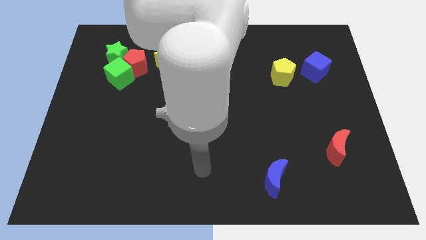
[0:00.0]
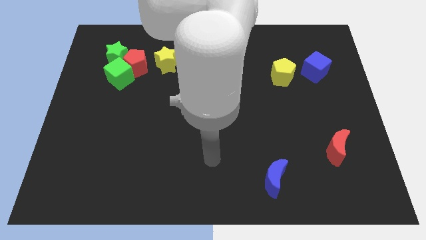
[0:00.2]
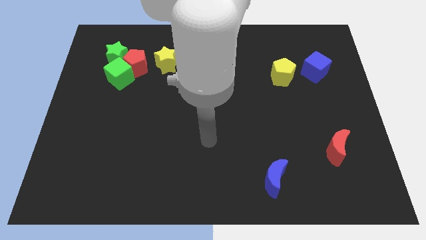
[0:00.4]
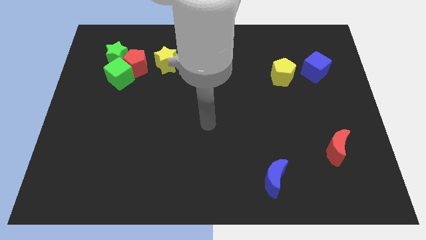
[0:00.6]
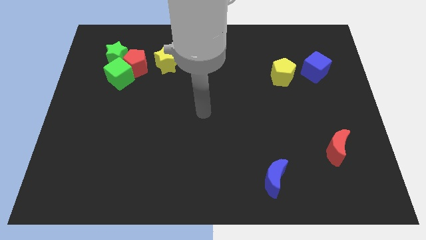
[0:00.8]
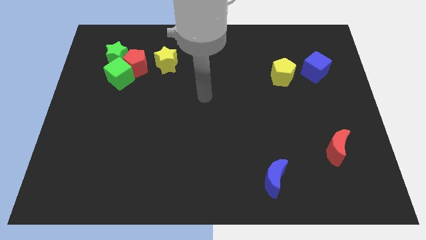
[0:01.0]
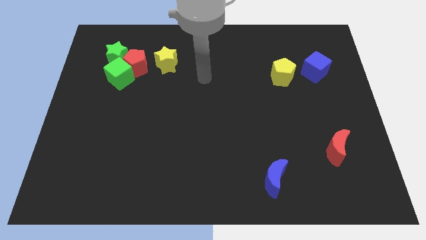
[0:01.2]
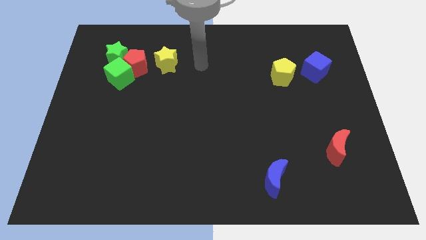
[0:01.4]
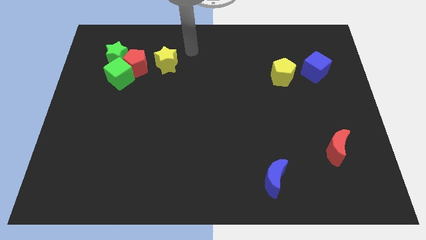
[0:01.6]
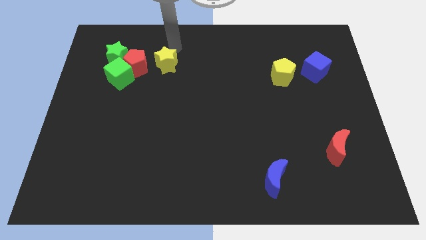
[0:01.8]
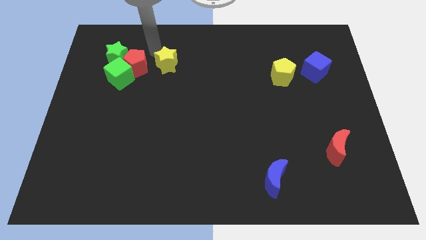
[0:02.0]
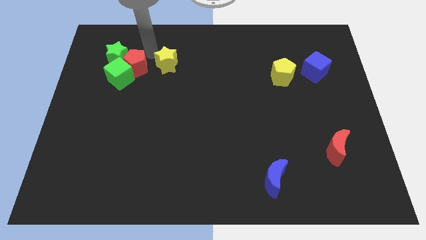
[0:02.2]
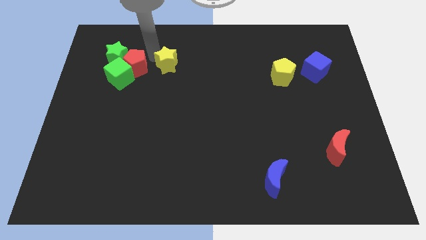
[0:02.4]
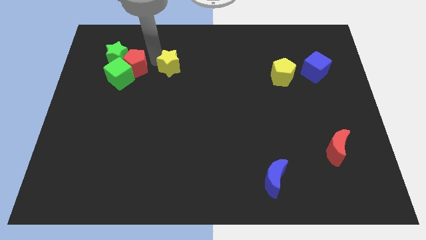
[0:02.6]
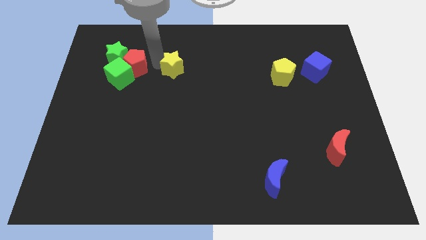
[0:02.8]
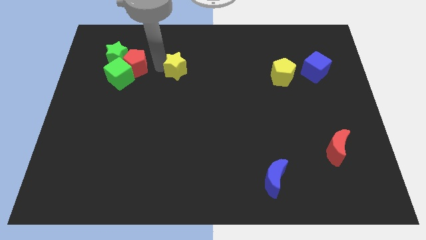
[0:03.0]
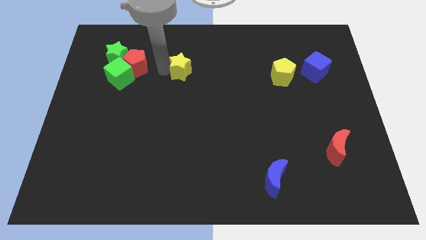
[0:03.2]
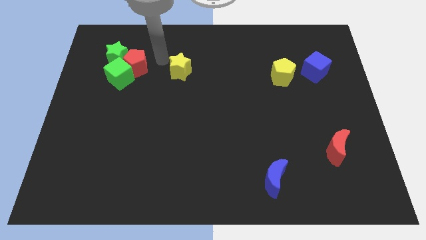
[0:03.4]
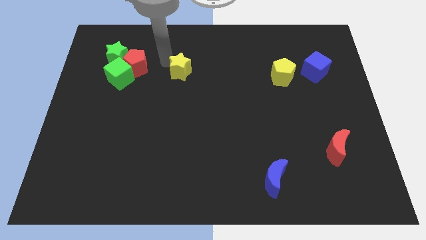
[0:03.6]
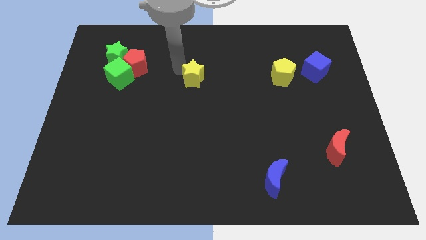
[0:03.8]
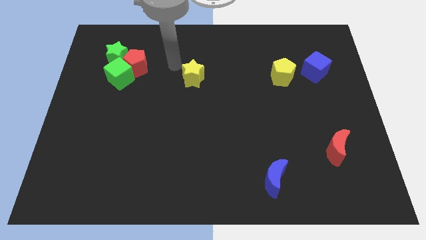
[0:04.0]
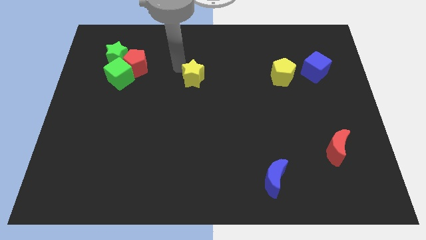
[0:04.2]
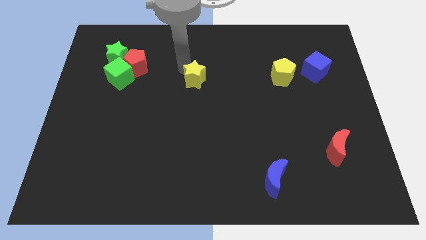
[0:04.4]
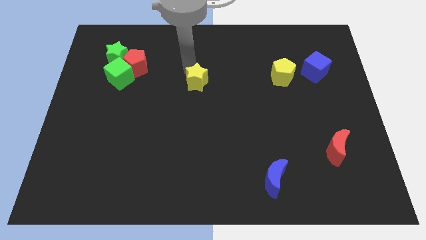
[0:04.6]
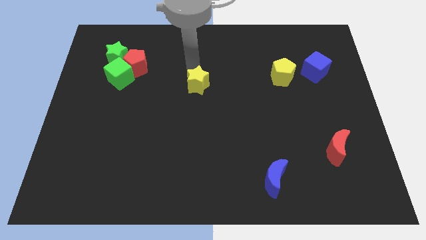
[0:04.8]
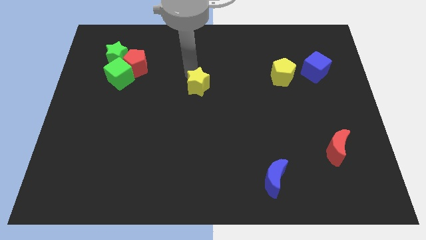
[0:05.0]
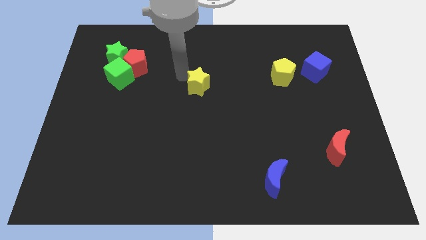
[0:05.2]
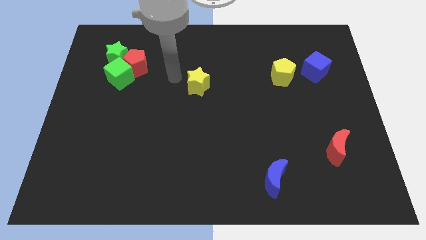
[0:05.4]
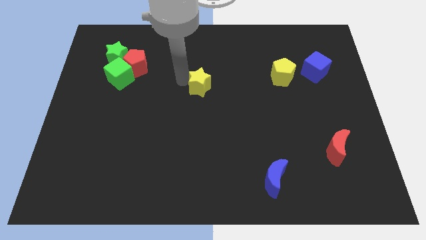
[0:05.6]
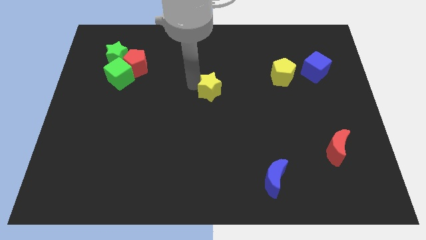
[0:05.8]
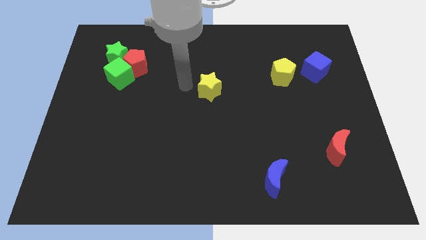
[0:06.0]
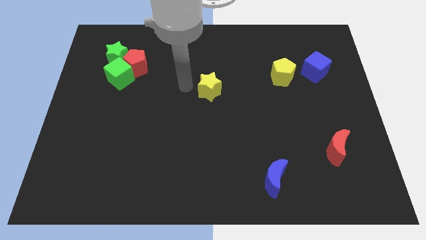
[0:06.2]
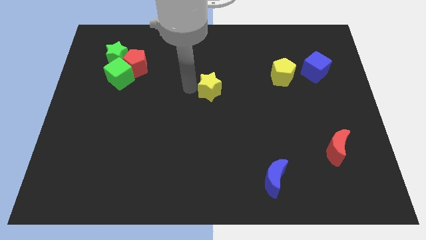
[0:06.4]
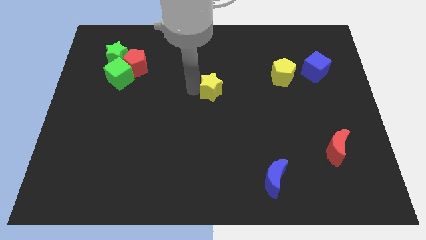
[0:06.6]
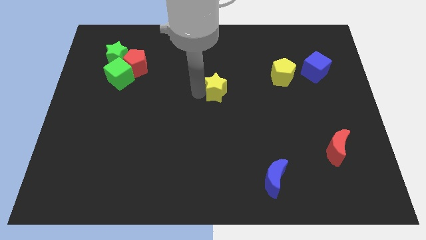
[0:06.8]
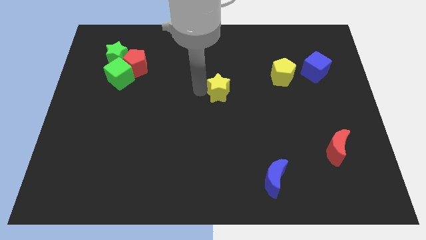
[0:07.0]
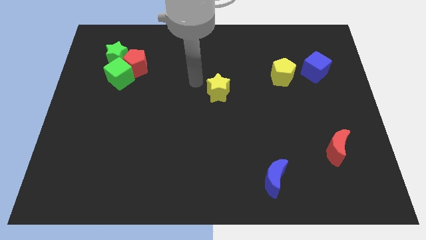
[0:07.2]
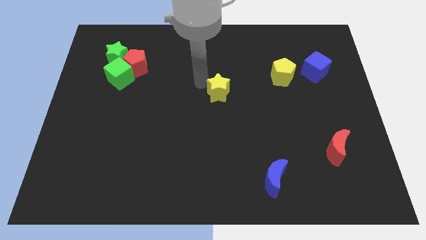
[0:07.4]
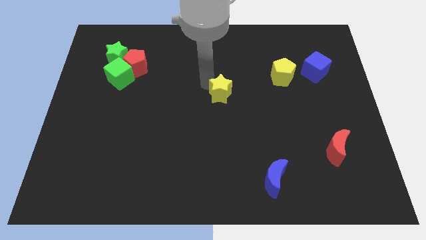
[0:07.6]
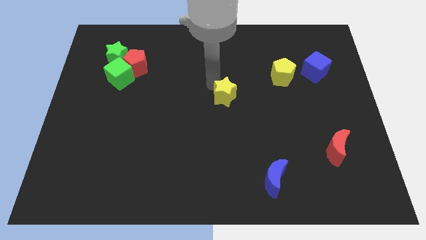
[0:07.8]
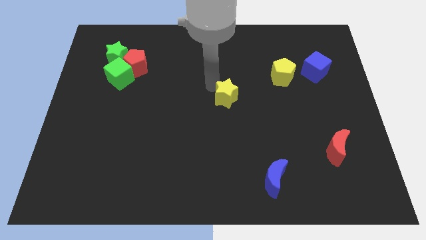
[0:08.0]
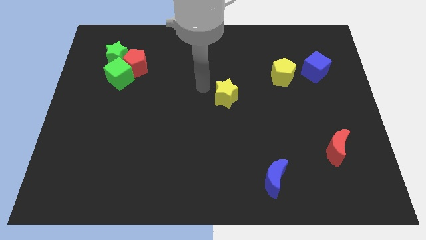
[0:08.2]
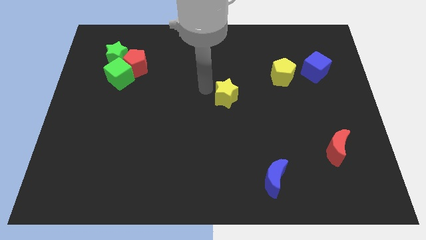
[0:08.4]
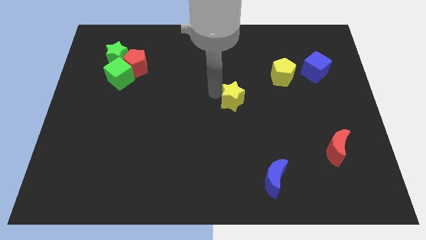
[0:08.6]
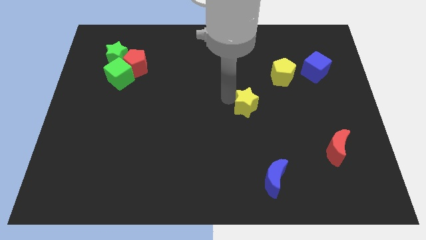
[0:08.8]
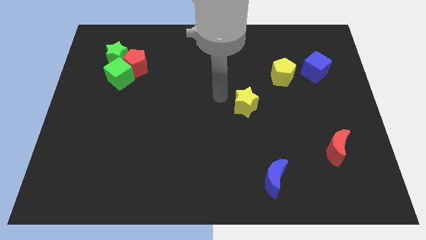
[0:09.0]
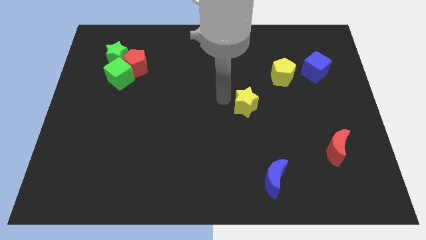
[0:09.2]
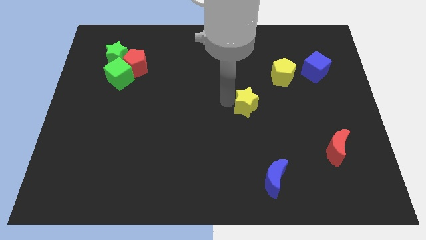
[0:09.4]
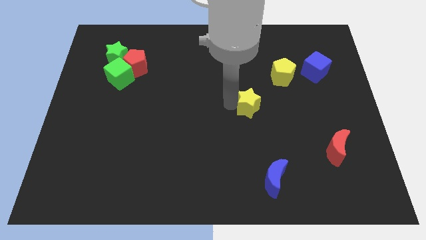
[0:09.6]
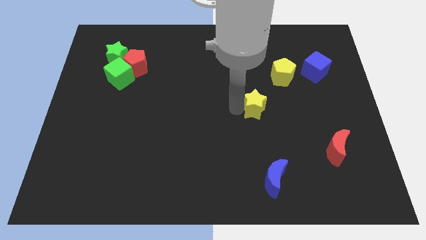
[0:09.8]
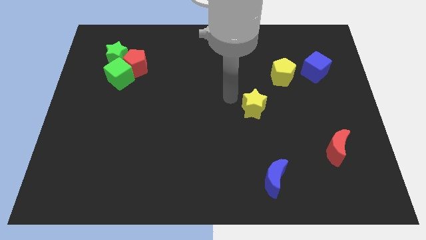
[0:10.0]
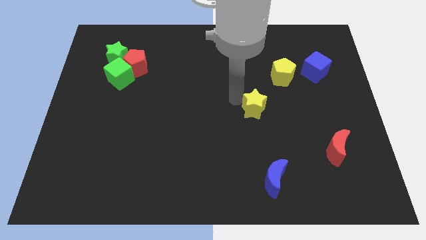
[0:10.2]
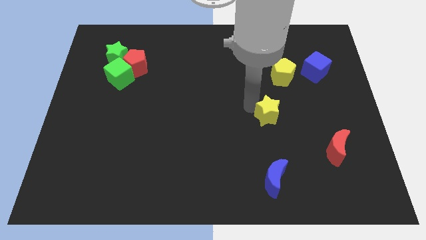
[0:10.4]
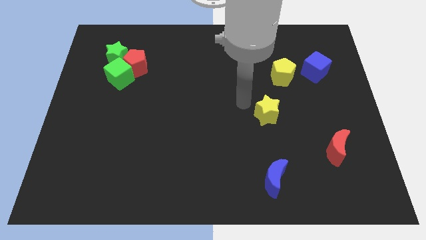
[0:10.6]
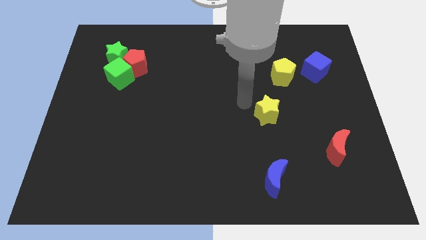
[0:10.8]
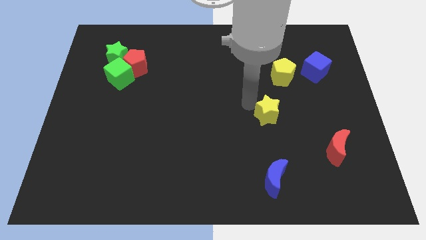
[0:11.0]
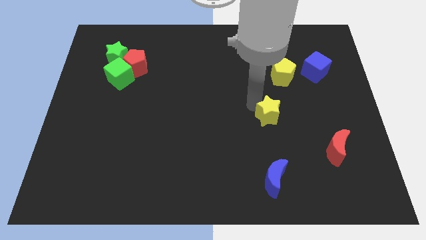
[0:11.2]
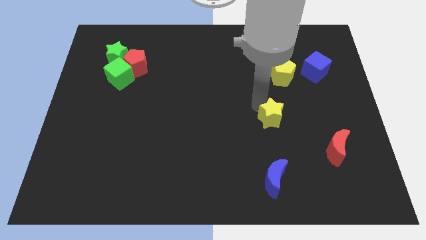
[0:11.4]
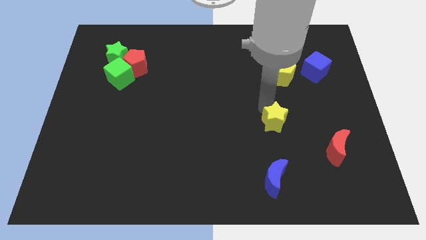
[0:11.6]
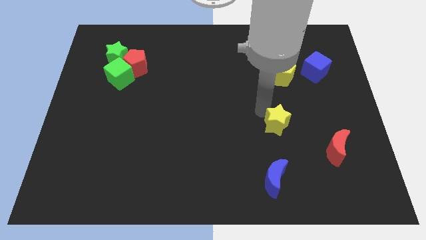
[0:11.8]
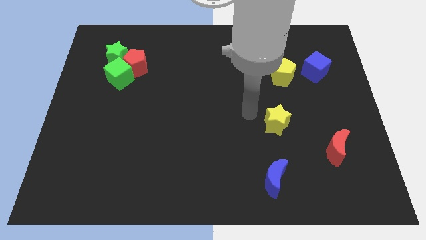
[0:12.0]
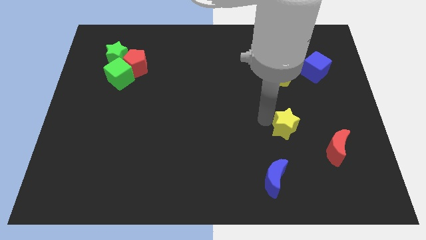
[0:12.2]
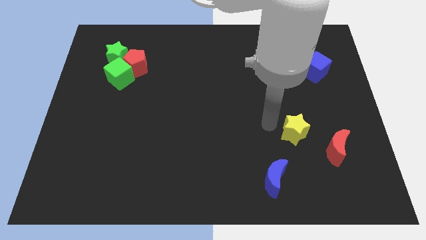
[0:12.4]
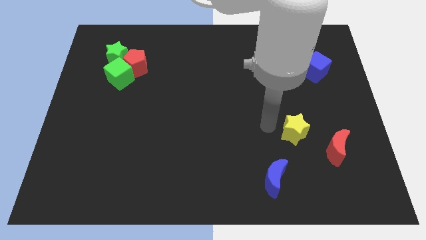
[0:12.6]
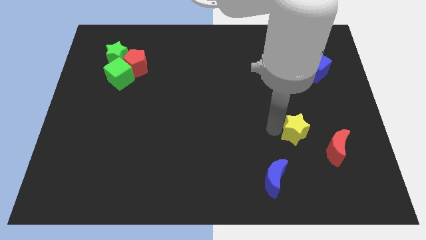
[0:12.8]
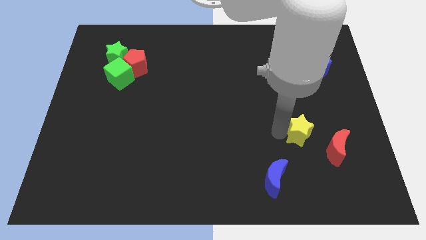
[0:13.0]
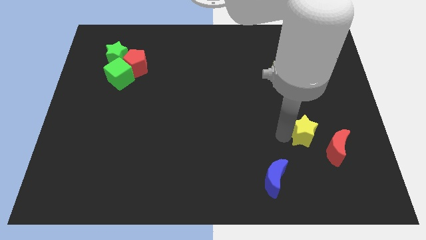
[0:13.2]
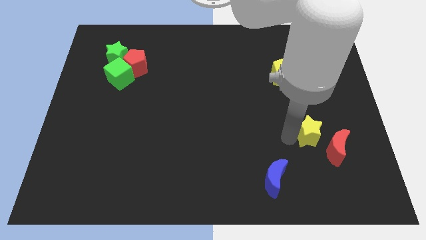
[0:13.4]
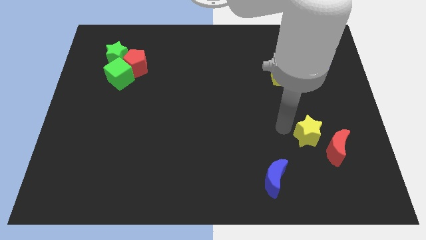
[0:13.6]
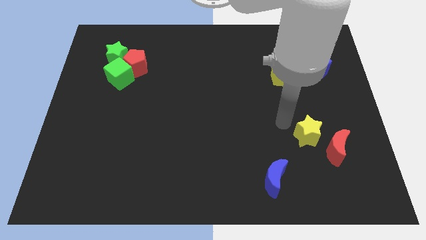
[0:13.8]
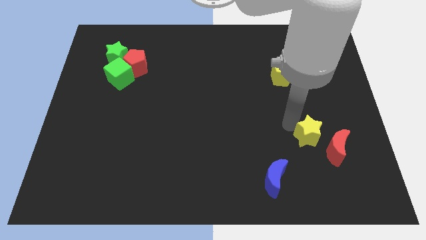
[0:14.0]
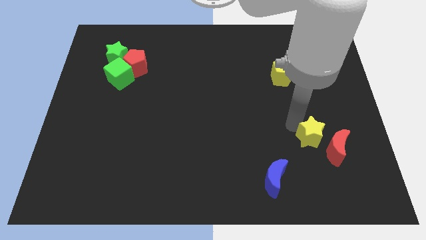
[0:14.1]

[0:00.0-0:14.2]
move the yellow star towards the red moon

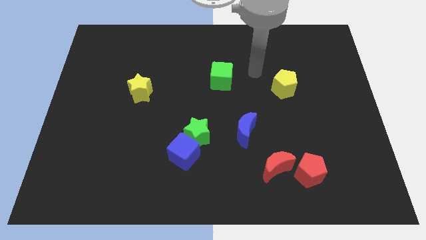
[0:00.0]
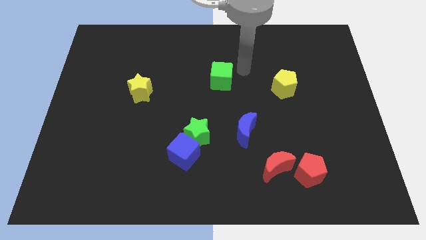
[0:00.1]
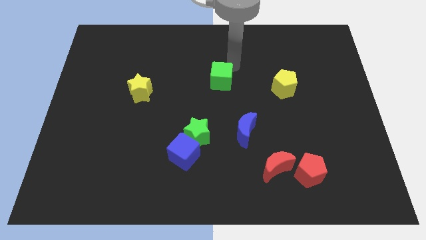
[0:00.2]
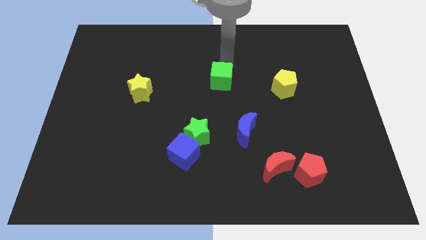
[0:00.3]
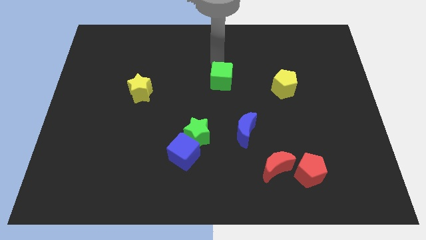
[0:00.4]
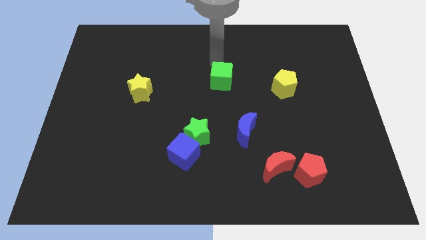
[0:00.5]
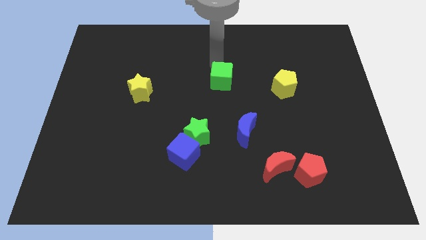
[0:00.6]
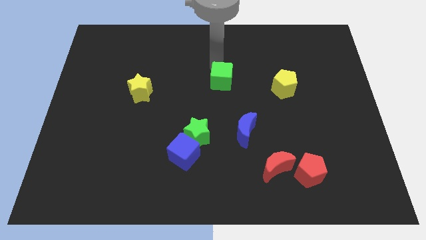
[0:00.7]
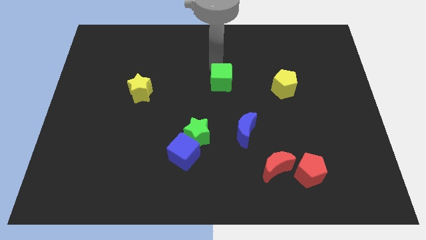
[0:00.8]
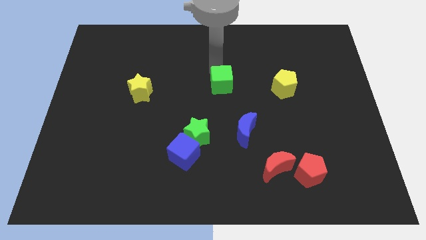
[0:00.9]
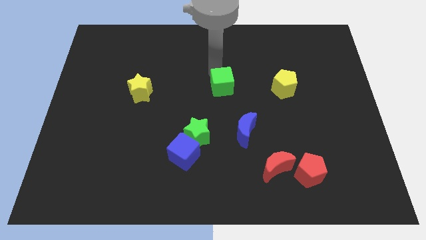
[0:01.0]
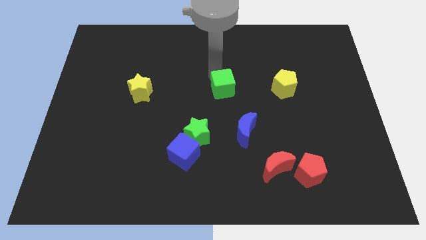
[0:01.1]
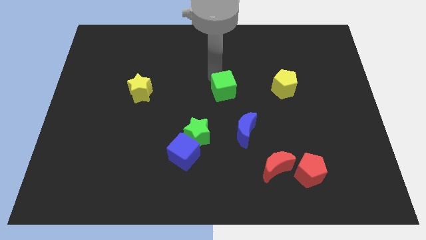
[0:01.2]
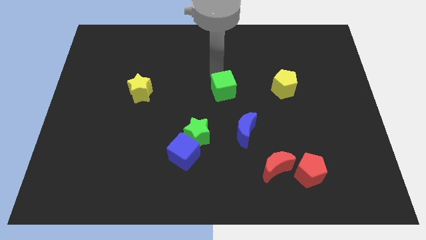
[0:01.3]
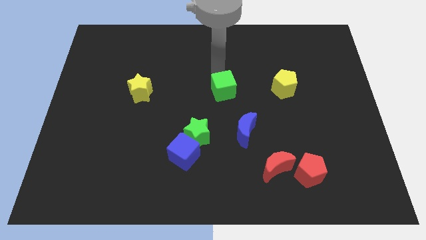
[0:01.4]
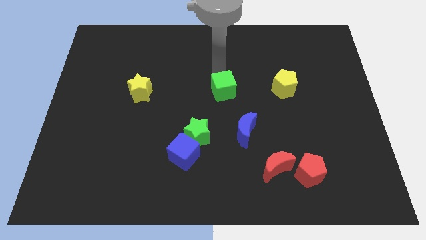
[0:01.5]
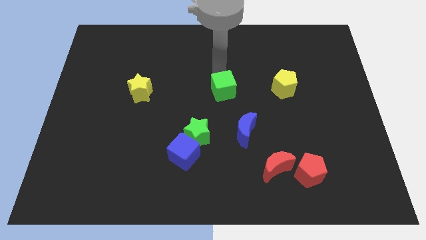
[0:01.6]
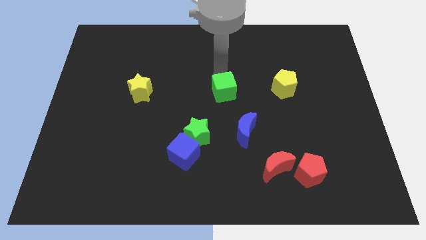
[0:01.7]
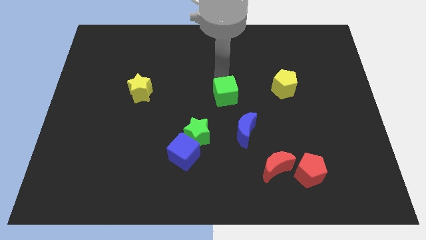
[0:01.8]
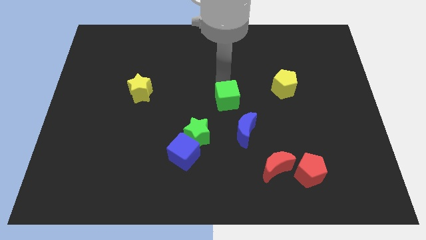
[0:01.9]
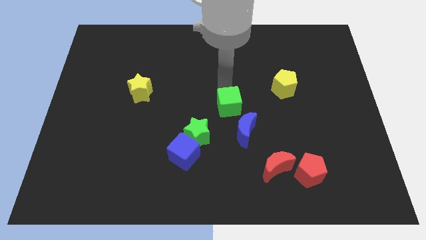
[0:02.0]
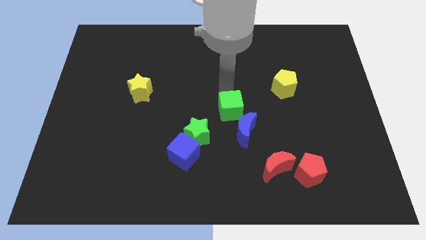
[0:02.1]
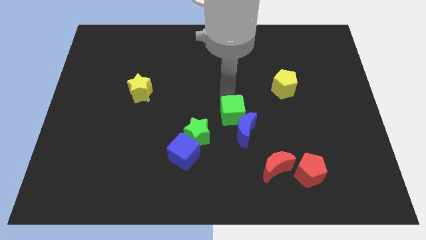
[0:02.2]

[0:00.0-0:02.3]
put the green cube towards the blue moon
